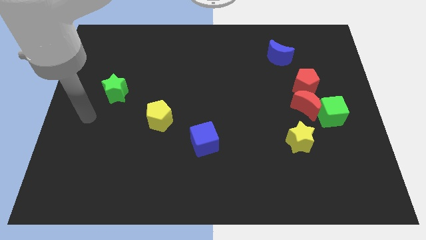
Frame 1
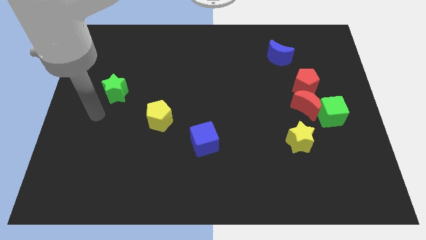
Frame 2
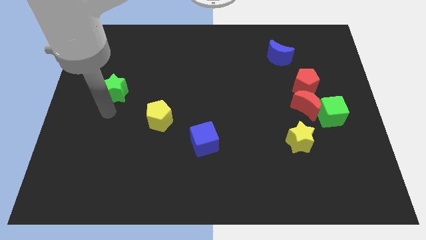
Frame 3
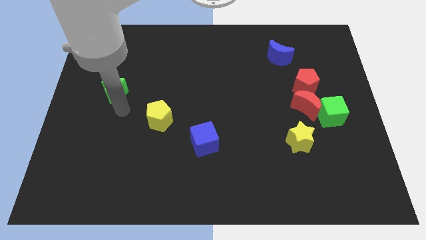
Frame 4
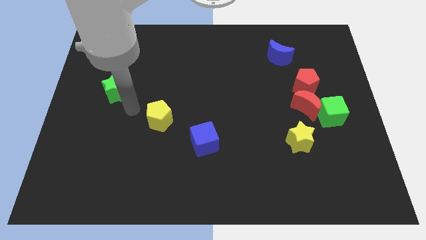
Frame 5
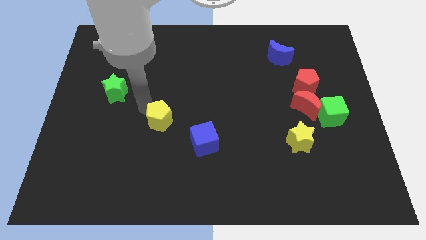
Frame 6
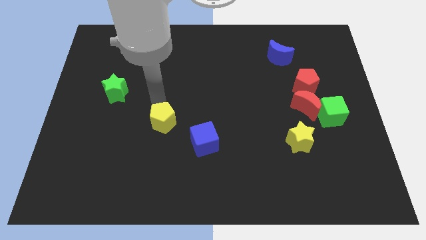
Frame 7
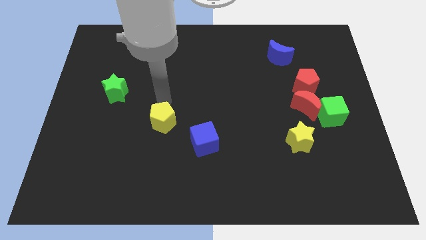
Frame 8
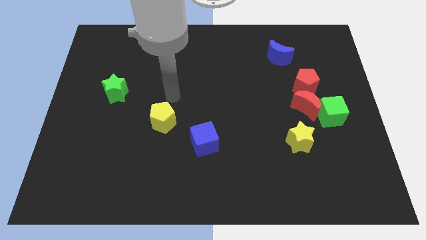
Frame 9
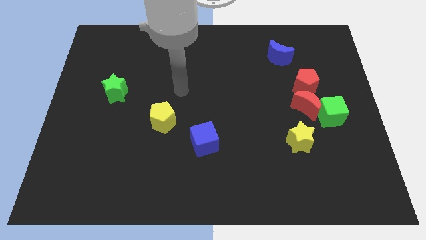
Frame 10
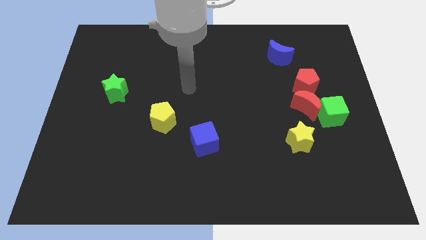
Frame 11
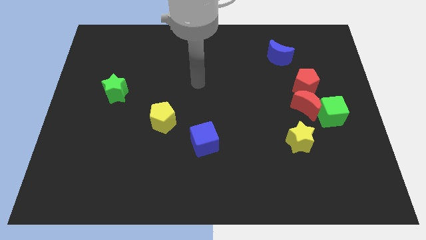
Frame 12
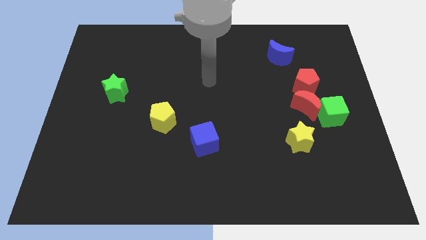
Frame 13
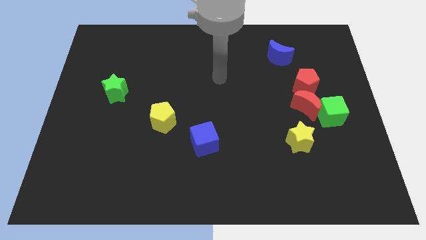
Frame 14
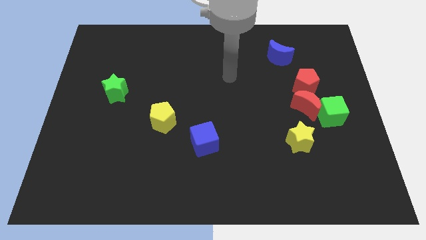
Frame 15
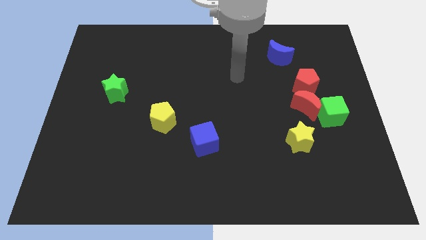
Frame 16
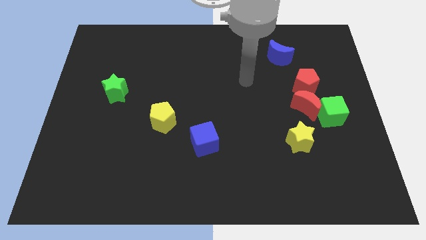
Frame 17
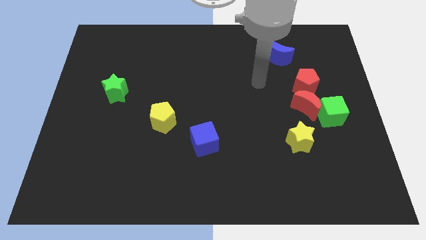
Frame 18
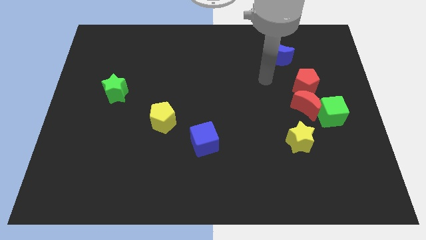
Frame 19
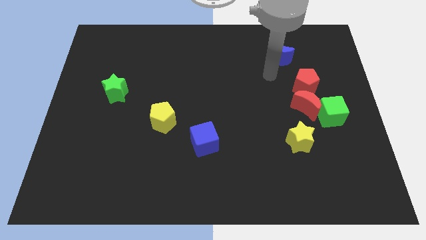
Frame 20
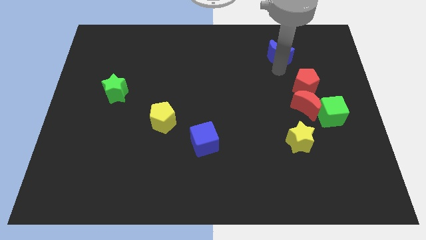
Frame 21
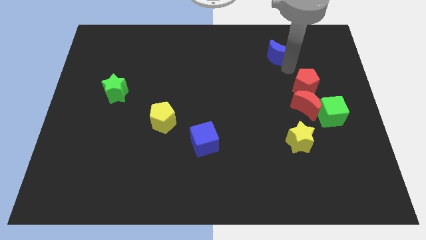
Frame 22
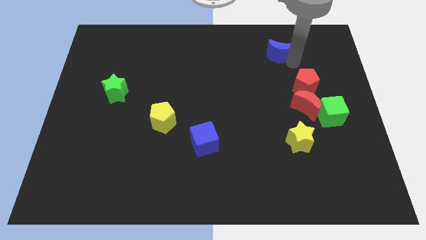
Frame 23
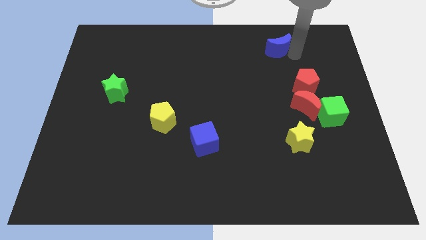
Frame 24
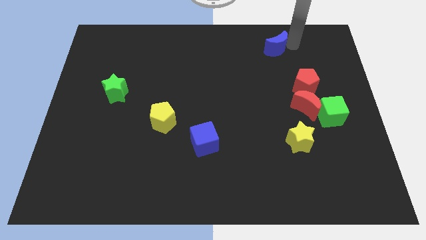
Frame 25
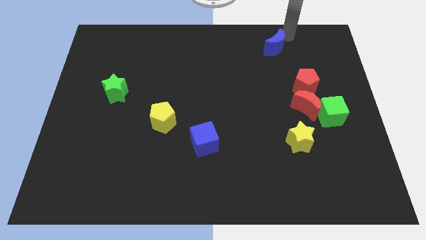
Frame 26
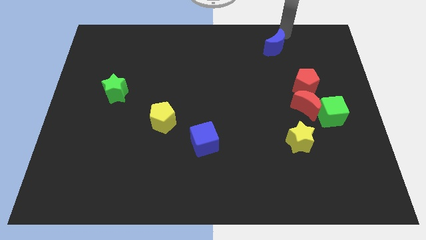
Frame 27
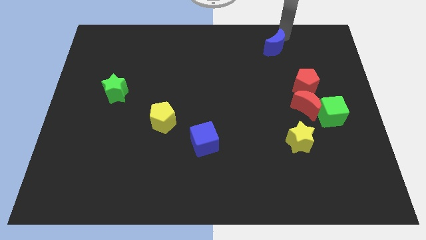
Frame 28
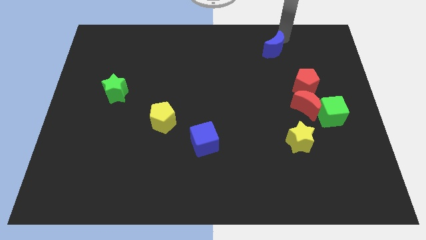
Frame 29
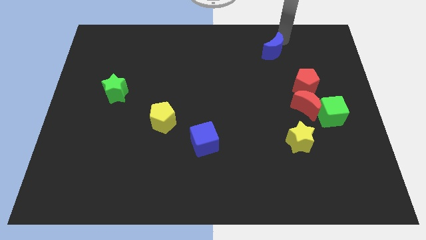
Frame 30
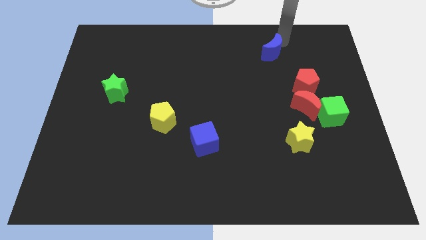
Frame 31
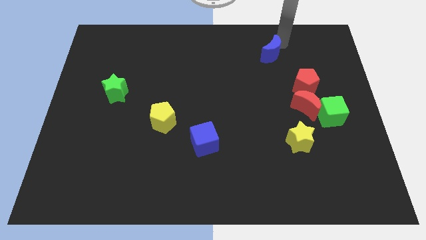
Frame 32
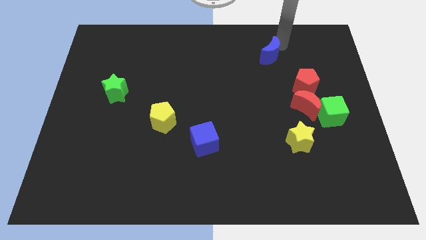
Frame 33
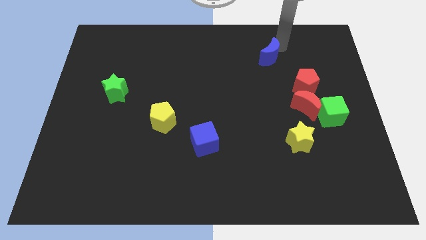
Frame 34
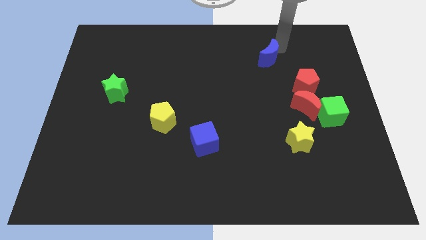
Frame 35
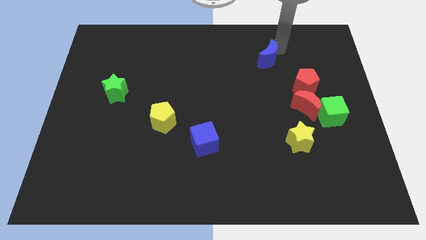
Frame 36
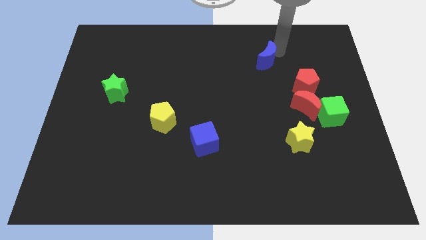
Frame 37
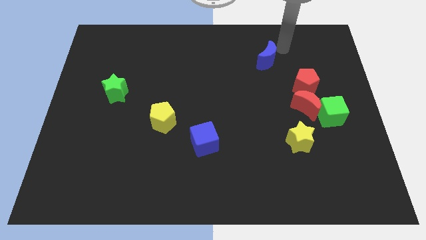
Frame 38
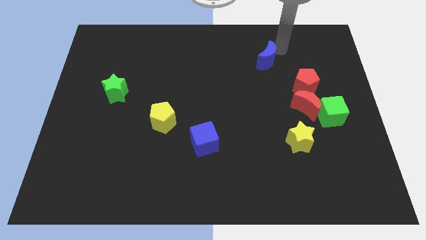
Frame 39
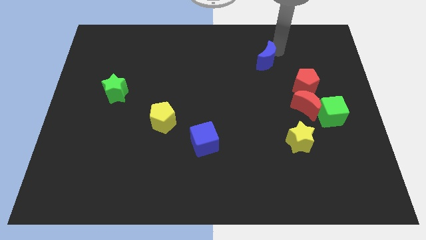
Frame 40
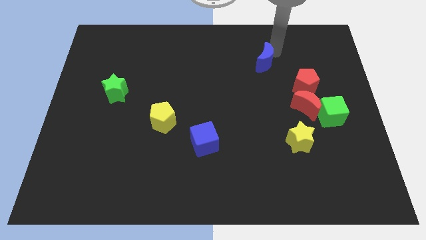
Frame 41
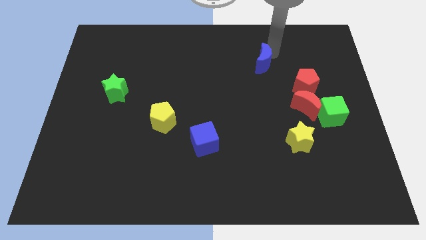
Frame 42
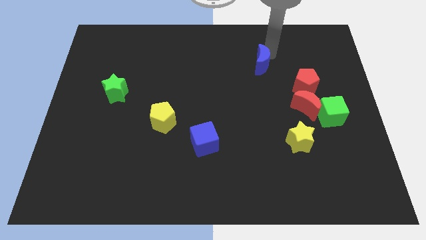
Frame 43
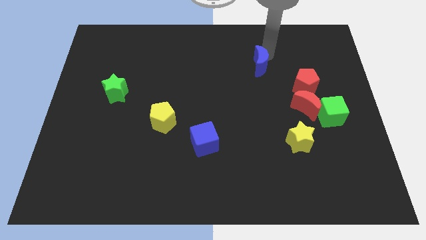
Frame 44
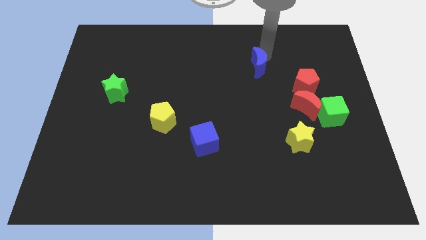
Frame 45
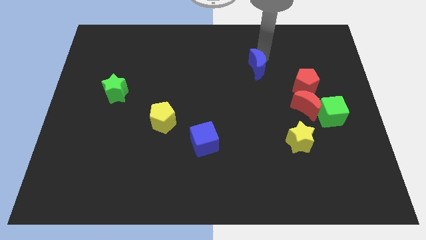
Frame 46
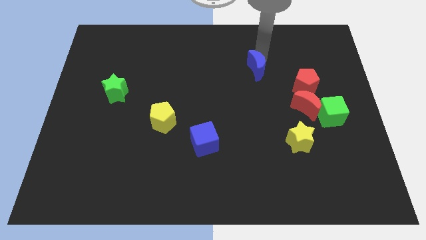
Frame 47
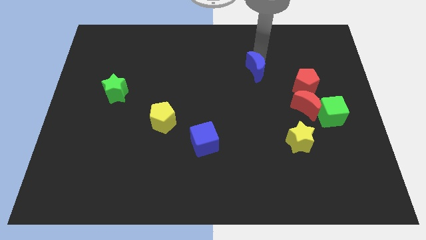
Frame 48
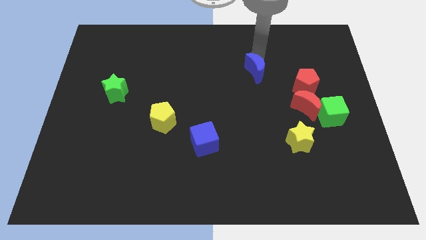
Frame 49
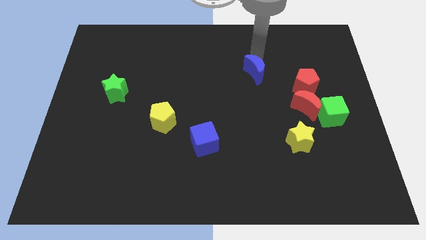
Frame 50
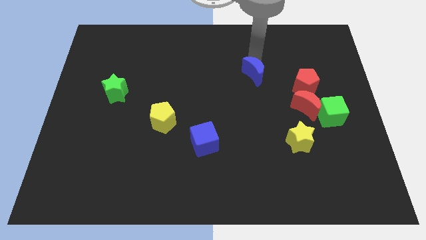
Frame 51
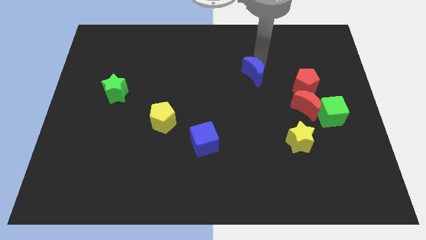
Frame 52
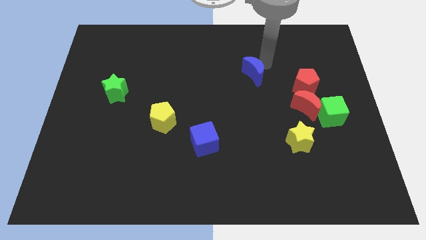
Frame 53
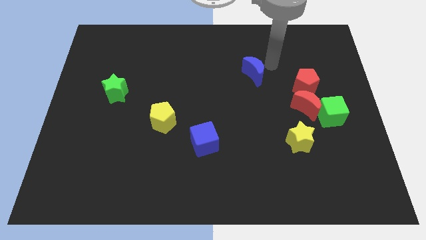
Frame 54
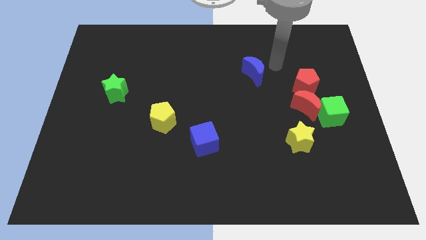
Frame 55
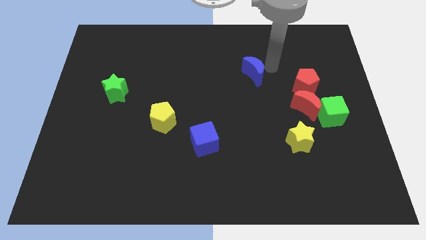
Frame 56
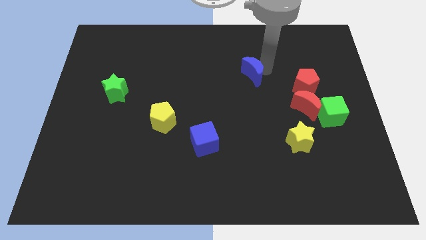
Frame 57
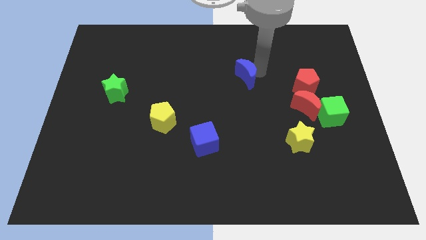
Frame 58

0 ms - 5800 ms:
slide the blue moon to the middle

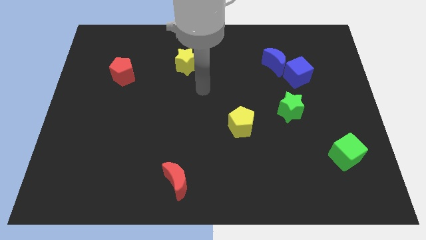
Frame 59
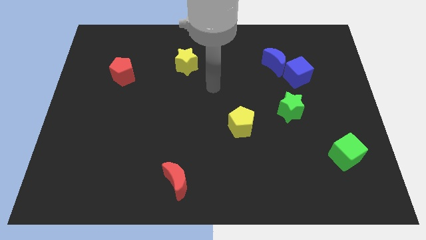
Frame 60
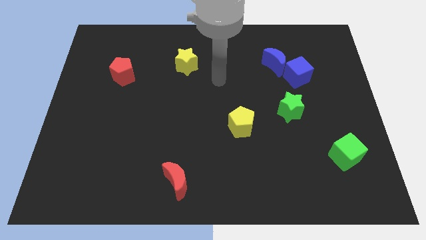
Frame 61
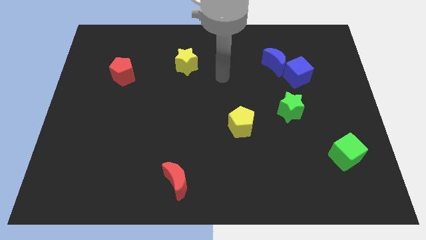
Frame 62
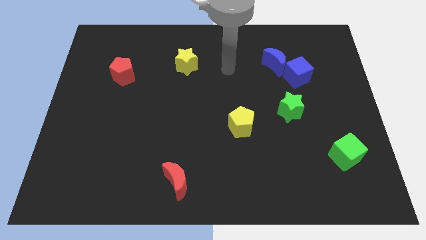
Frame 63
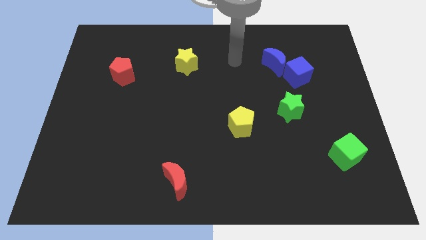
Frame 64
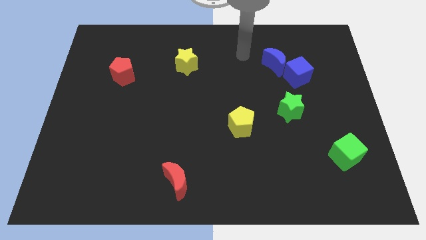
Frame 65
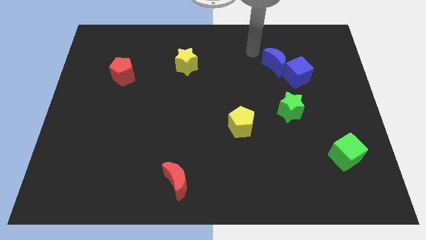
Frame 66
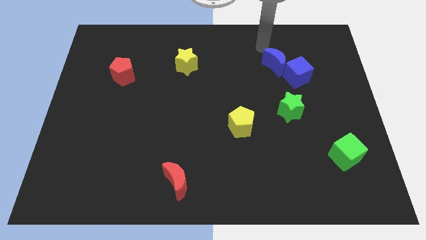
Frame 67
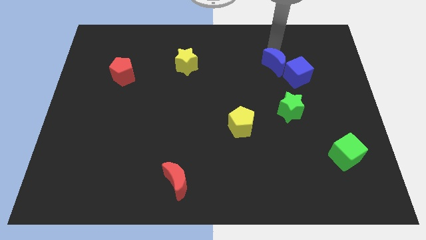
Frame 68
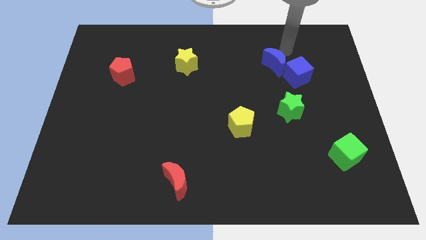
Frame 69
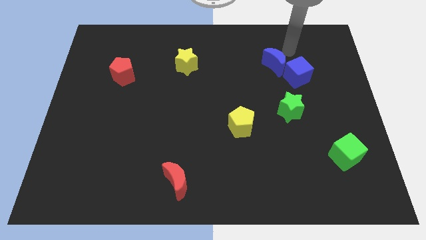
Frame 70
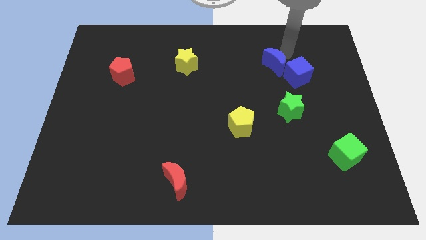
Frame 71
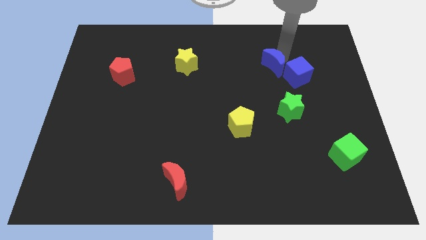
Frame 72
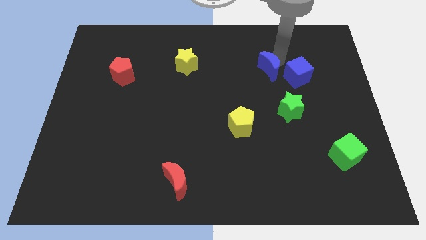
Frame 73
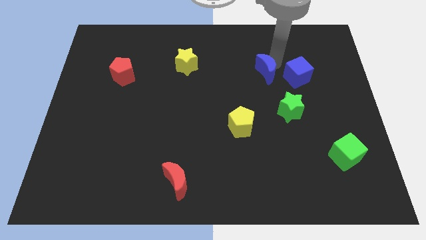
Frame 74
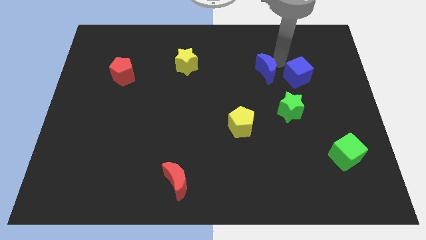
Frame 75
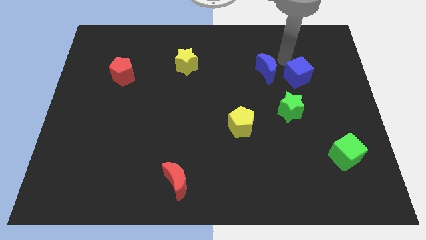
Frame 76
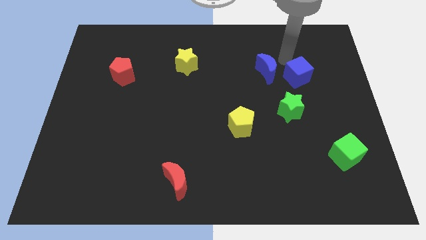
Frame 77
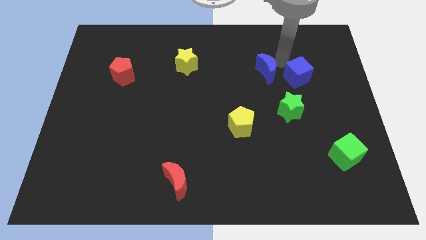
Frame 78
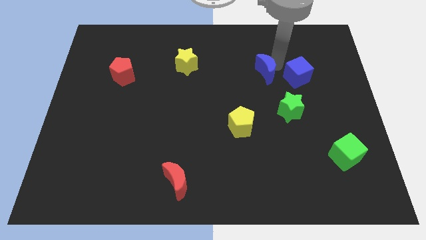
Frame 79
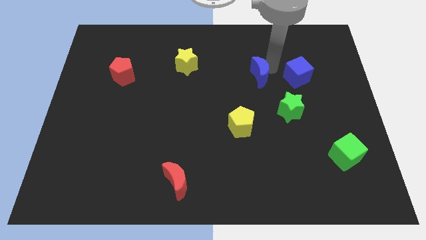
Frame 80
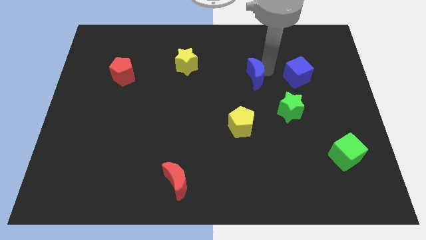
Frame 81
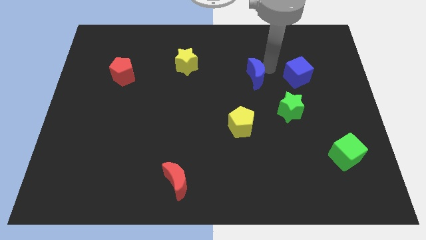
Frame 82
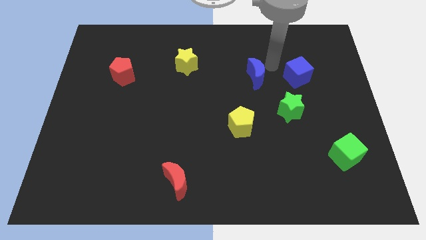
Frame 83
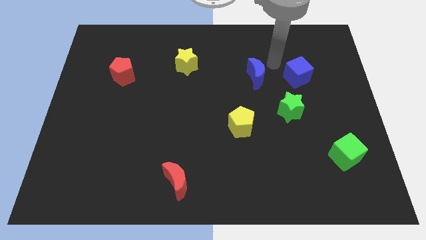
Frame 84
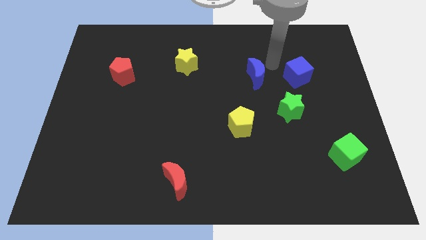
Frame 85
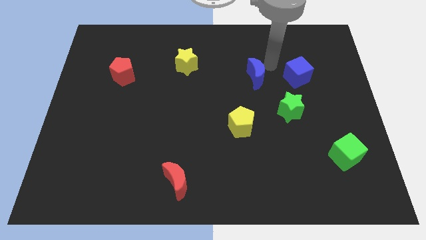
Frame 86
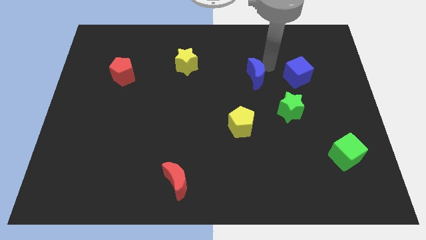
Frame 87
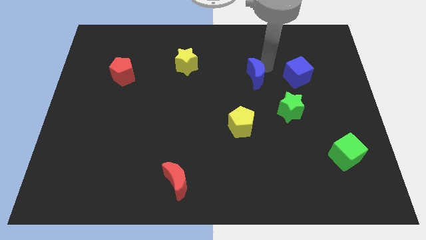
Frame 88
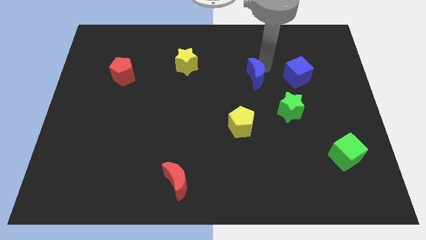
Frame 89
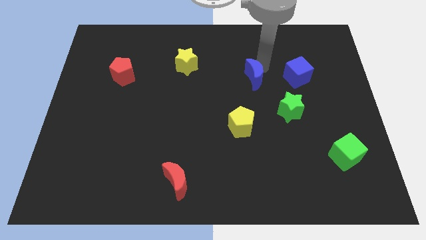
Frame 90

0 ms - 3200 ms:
put the blue moon to the middle of the board
